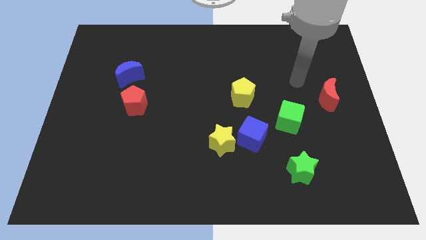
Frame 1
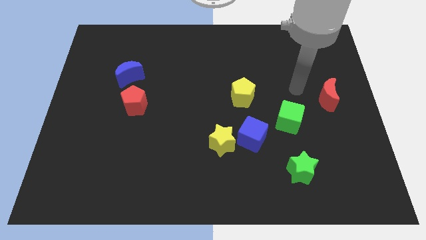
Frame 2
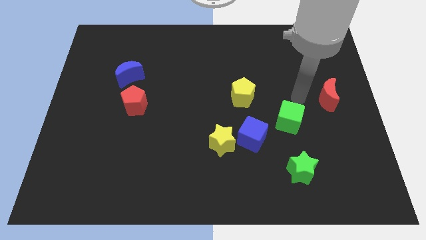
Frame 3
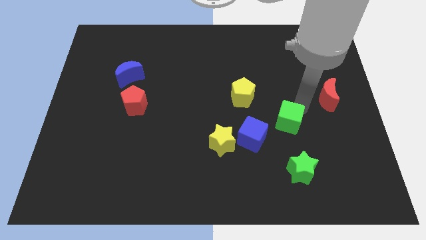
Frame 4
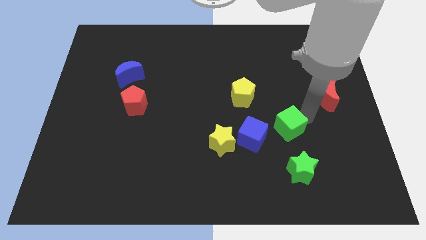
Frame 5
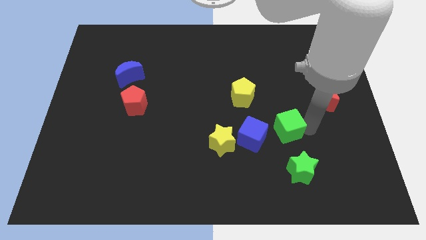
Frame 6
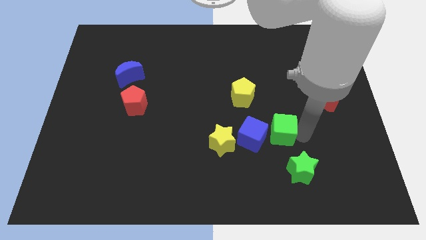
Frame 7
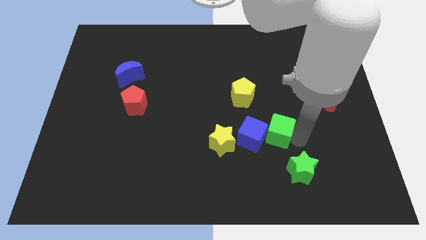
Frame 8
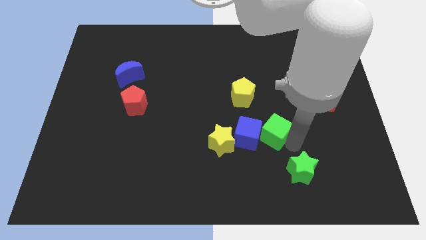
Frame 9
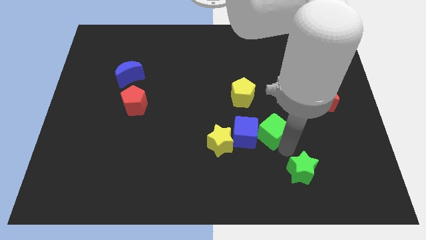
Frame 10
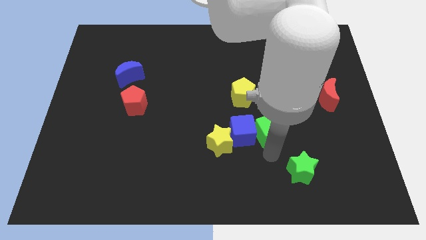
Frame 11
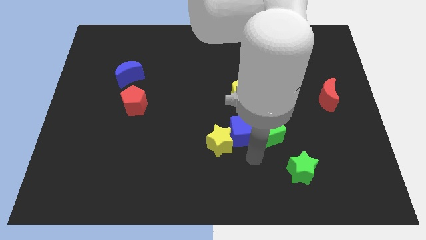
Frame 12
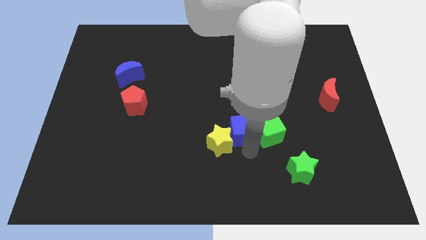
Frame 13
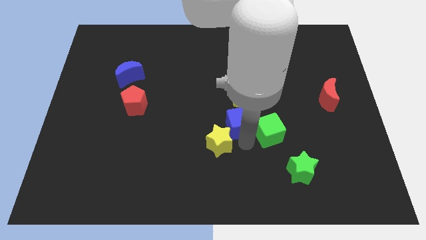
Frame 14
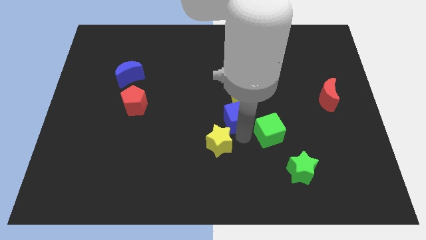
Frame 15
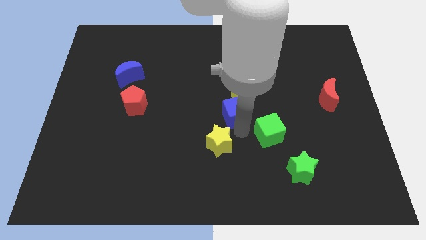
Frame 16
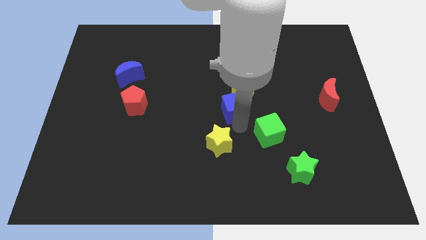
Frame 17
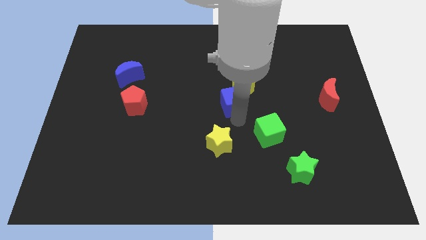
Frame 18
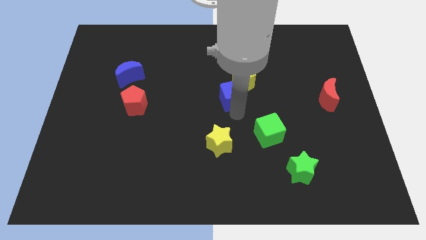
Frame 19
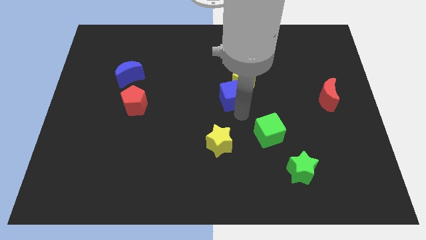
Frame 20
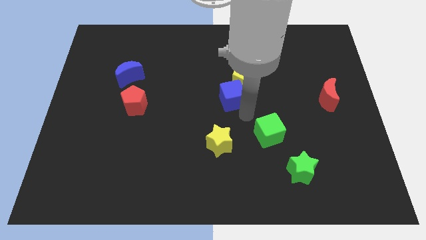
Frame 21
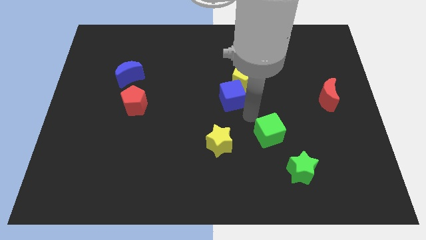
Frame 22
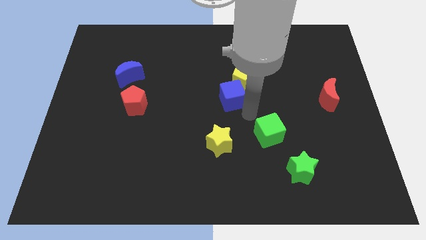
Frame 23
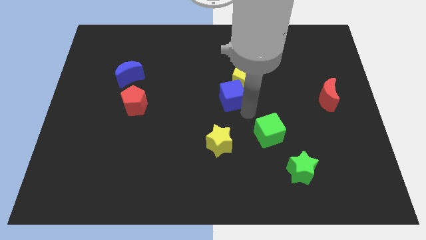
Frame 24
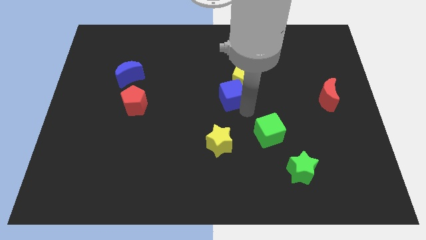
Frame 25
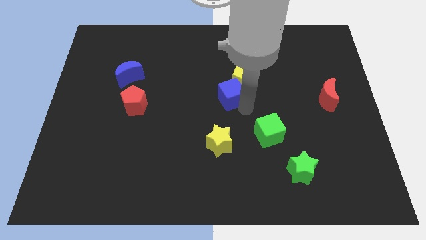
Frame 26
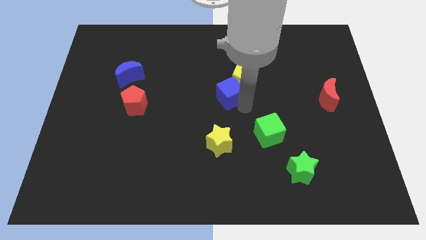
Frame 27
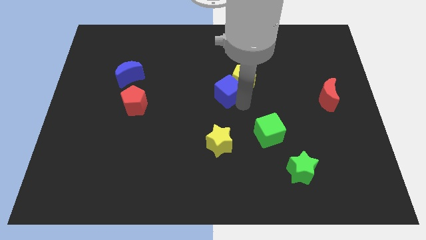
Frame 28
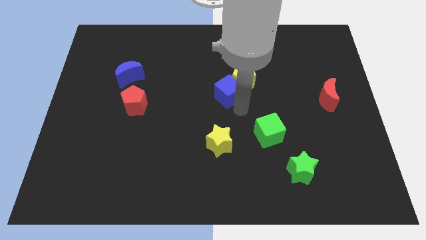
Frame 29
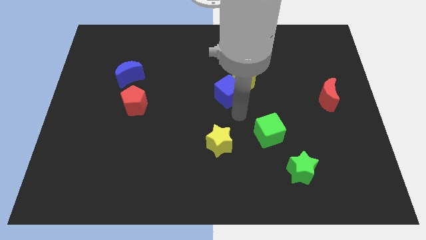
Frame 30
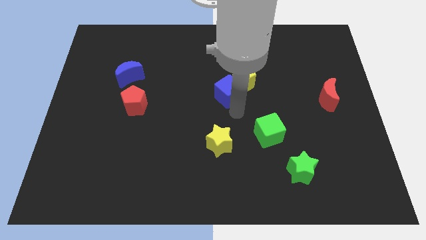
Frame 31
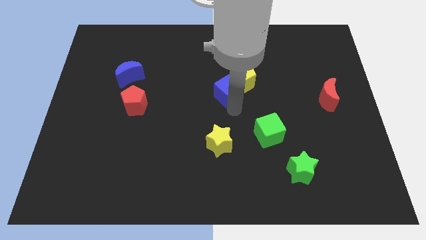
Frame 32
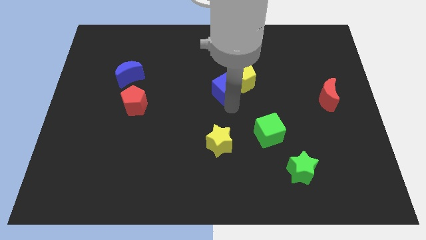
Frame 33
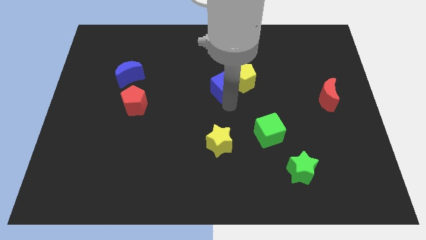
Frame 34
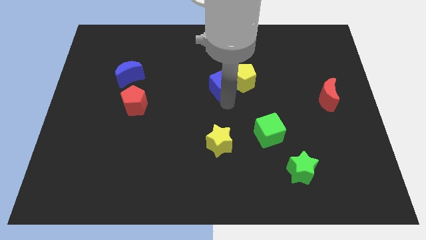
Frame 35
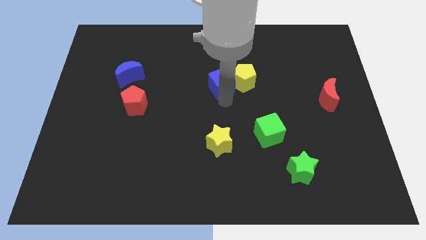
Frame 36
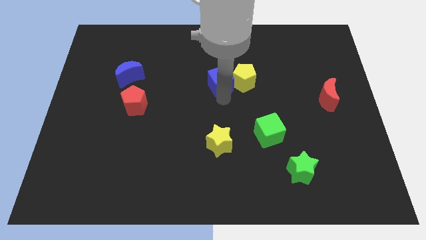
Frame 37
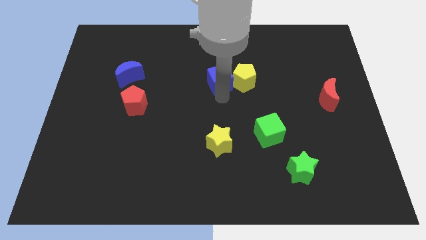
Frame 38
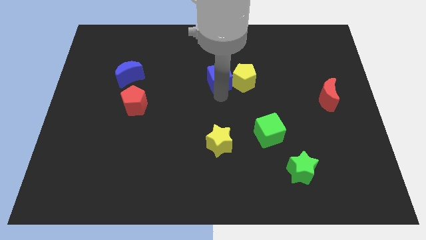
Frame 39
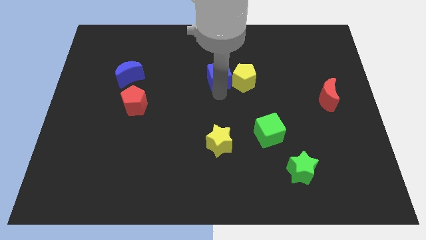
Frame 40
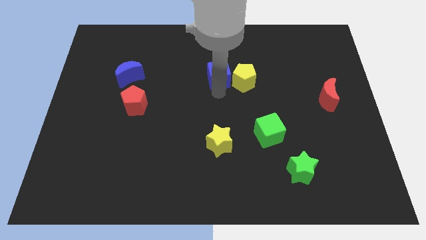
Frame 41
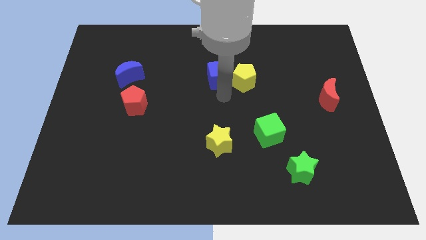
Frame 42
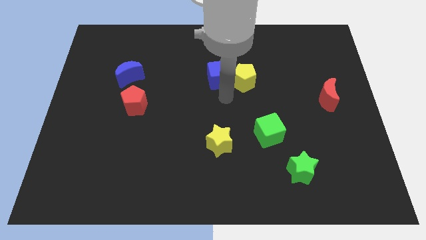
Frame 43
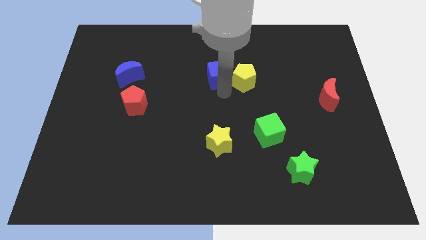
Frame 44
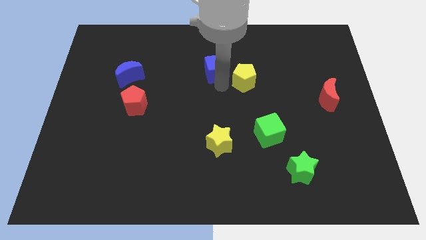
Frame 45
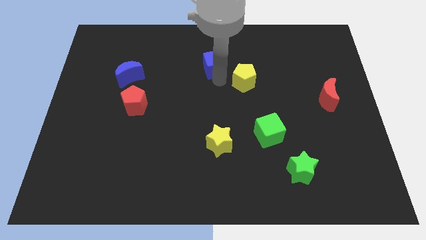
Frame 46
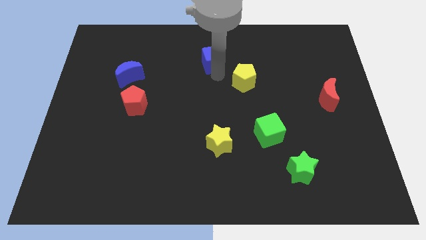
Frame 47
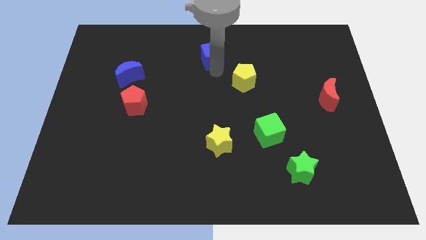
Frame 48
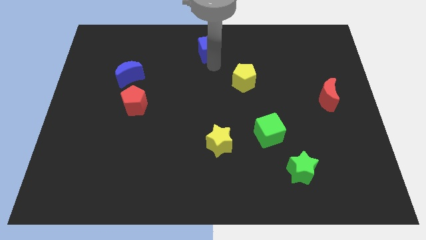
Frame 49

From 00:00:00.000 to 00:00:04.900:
push the blue cube to the top

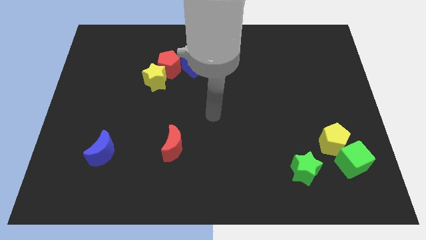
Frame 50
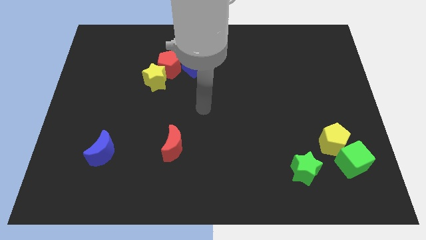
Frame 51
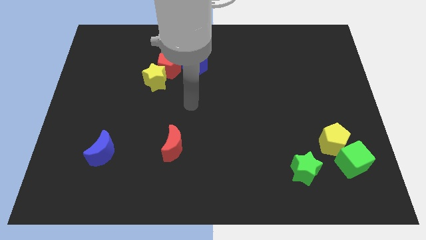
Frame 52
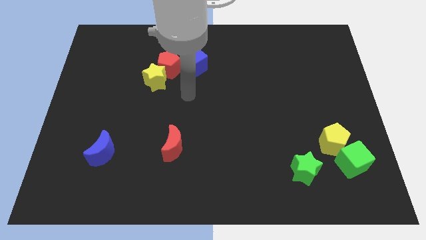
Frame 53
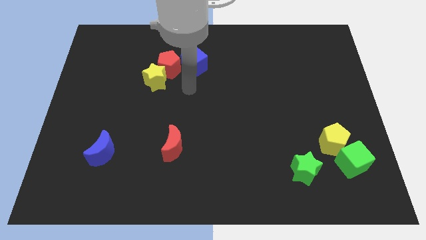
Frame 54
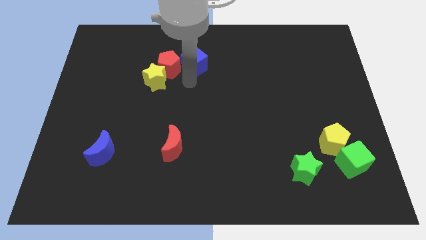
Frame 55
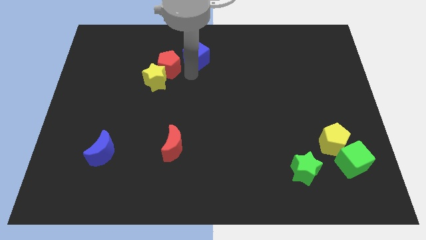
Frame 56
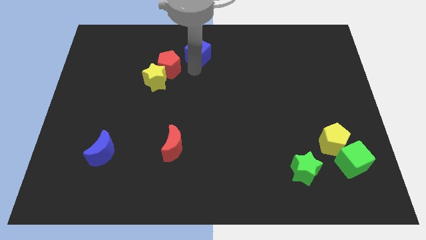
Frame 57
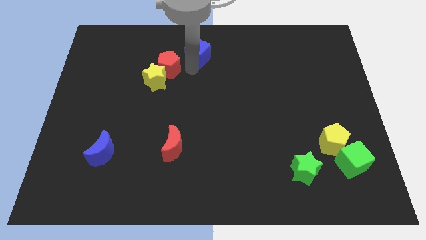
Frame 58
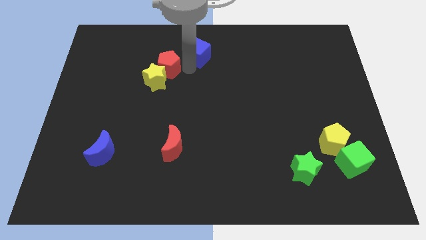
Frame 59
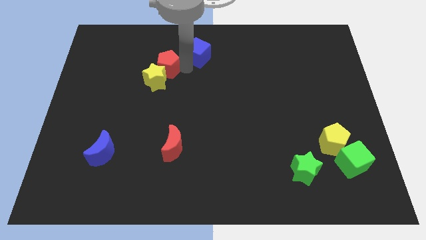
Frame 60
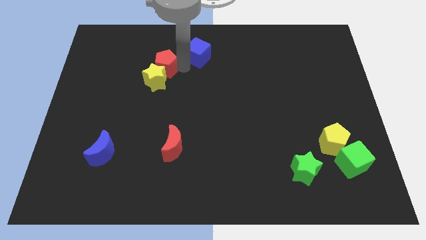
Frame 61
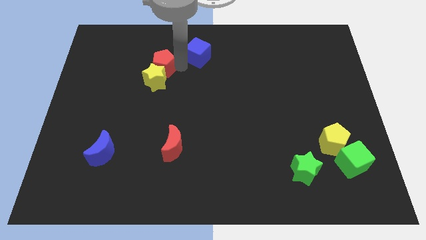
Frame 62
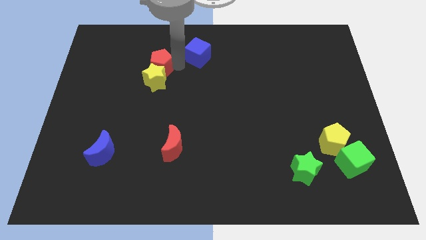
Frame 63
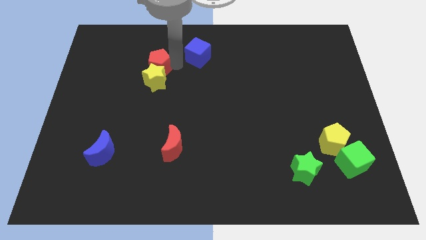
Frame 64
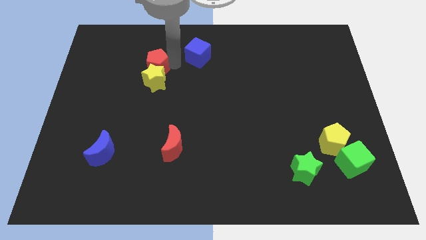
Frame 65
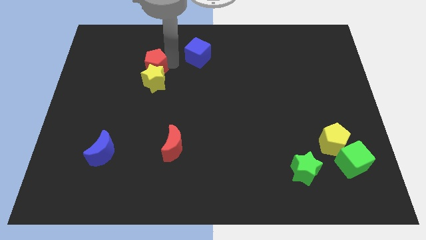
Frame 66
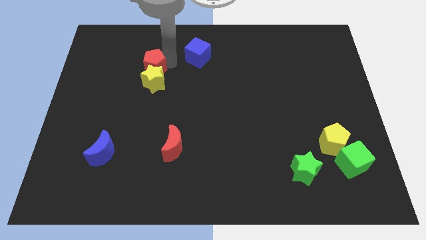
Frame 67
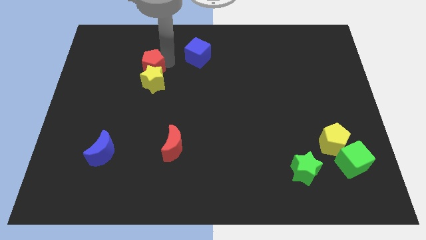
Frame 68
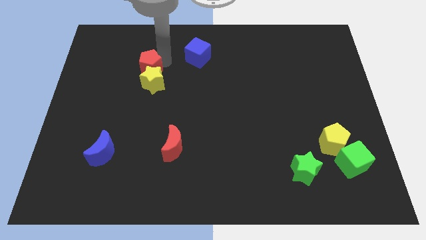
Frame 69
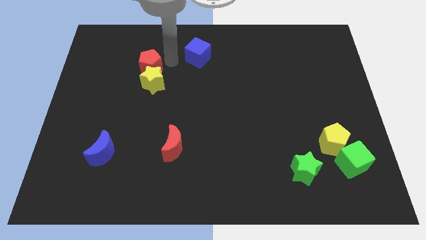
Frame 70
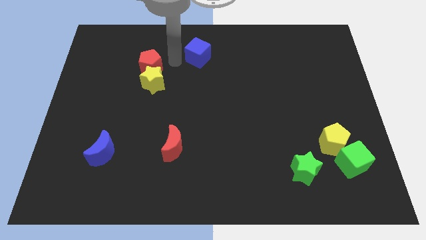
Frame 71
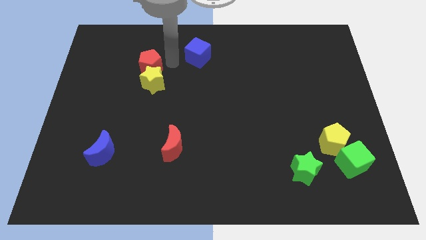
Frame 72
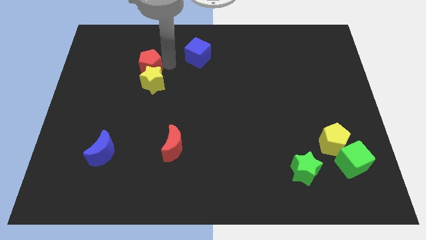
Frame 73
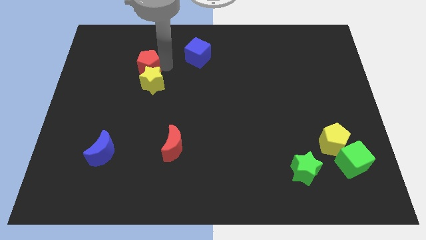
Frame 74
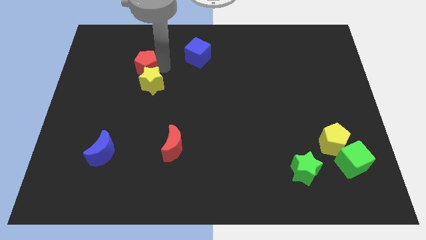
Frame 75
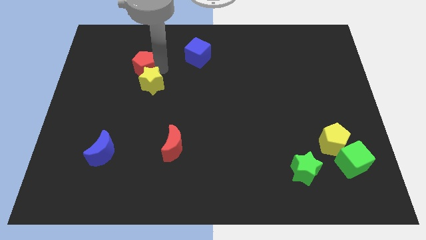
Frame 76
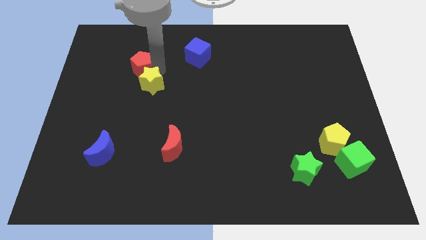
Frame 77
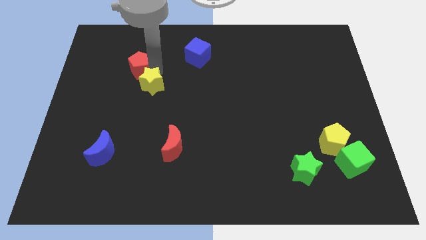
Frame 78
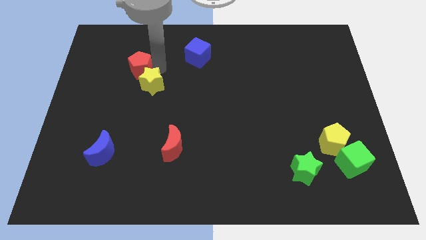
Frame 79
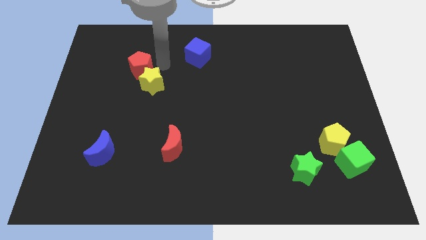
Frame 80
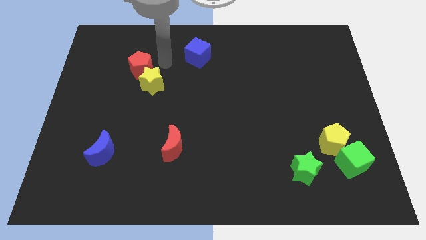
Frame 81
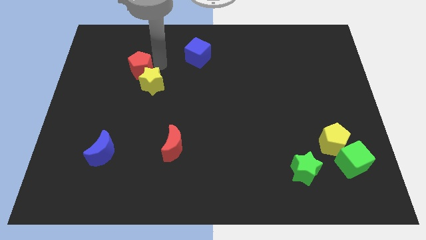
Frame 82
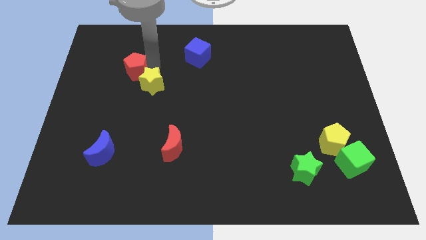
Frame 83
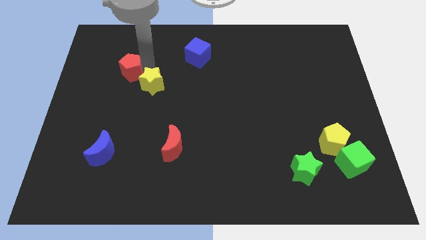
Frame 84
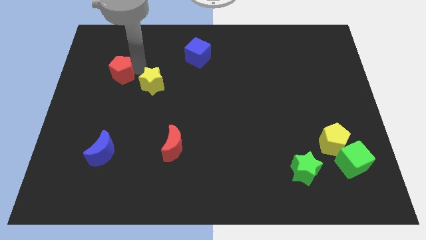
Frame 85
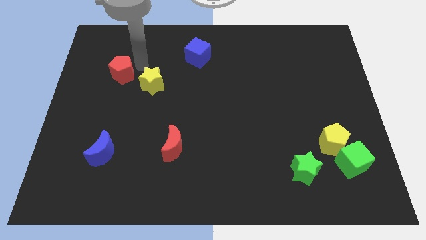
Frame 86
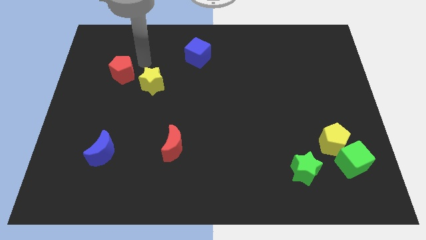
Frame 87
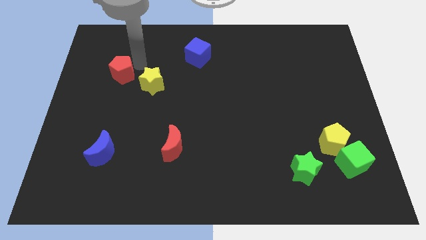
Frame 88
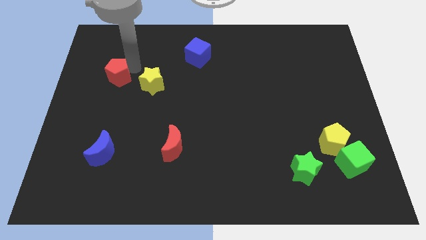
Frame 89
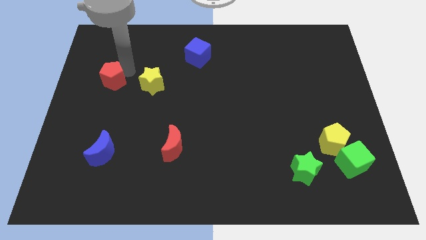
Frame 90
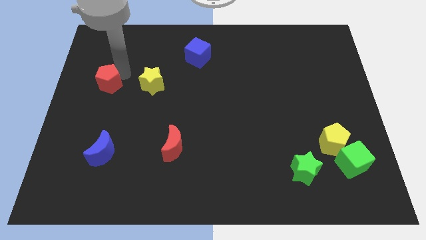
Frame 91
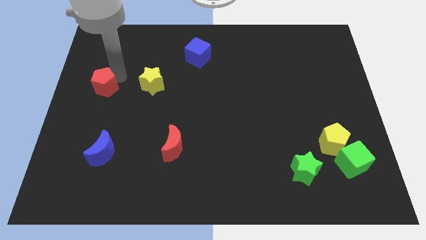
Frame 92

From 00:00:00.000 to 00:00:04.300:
put the red pentagon to the left side of the board
